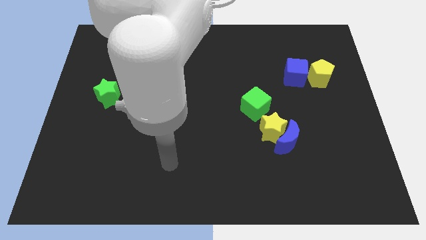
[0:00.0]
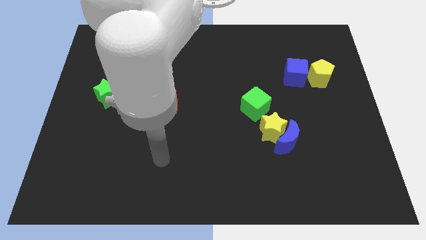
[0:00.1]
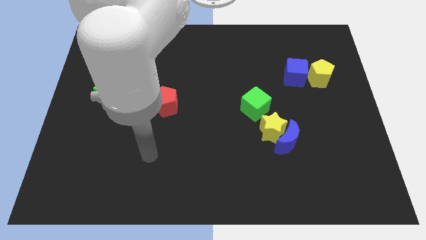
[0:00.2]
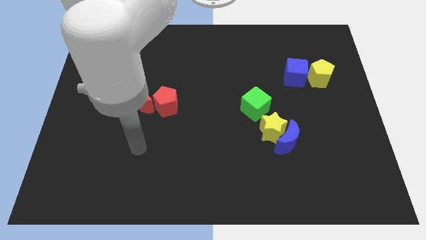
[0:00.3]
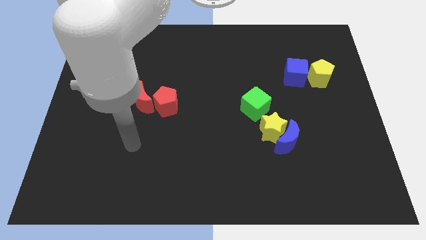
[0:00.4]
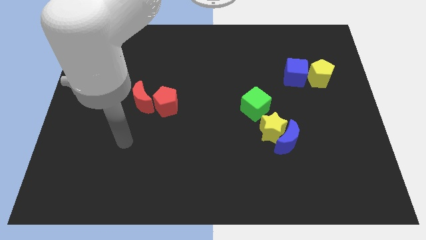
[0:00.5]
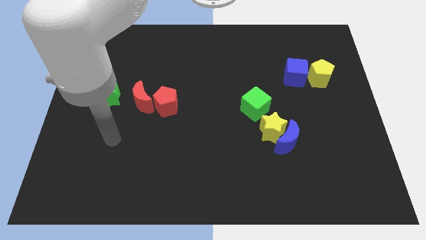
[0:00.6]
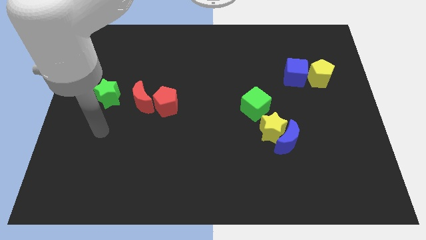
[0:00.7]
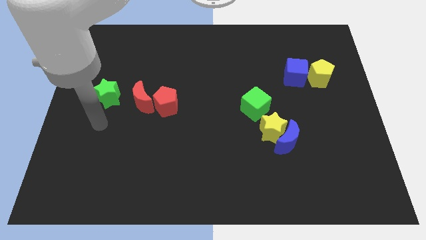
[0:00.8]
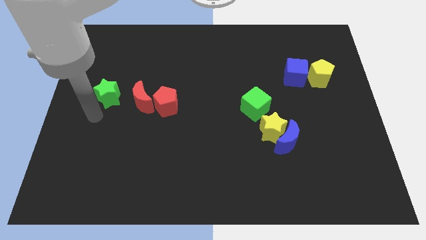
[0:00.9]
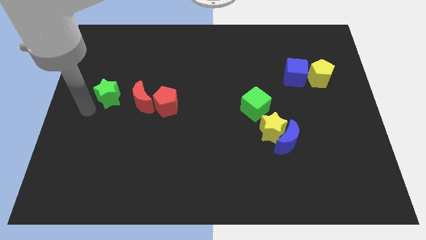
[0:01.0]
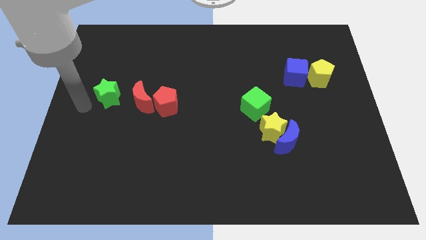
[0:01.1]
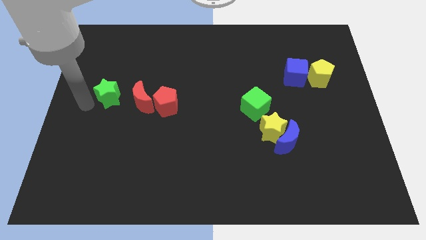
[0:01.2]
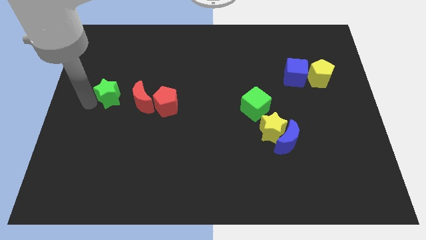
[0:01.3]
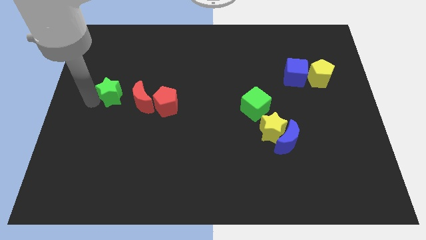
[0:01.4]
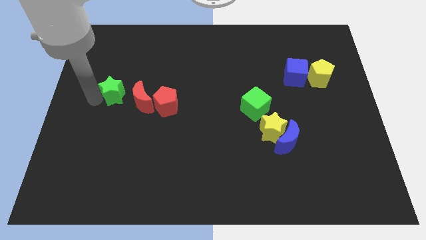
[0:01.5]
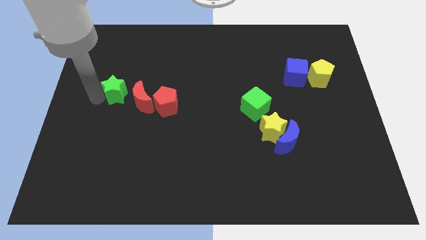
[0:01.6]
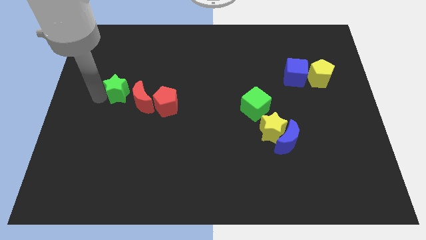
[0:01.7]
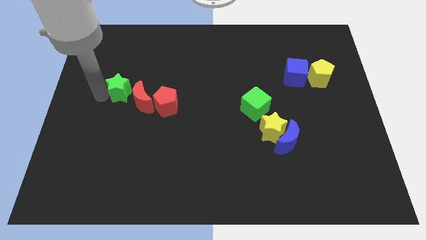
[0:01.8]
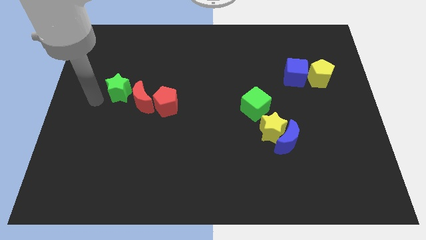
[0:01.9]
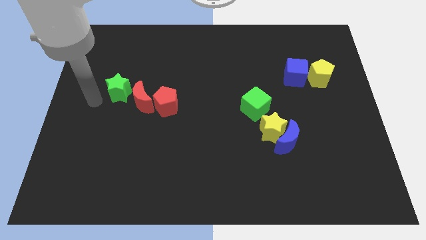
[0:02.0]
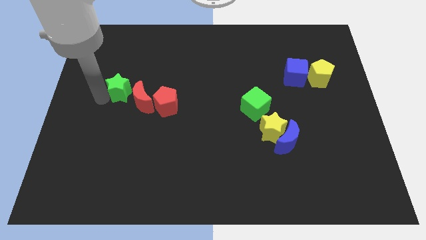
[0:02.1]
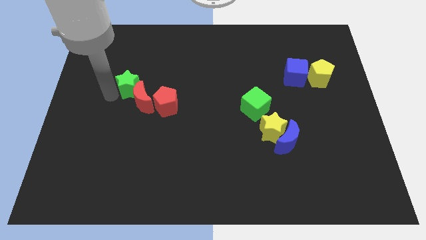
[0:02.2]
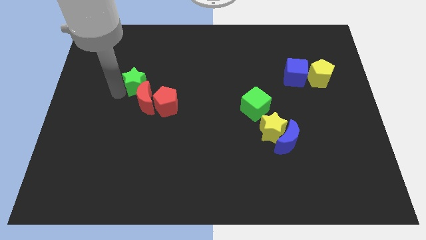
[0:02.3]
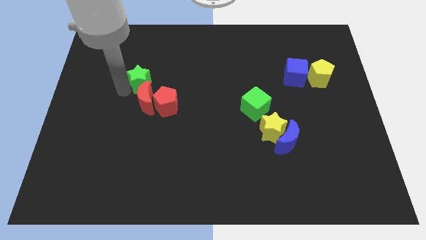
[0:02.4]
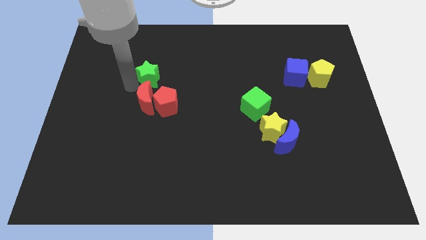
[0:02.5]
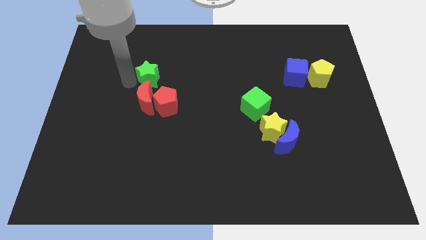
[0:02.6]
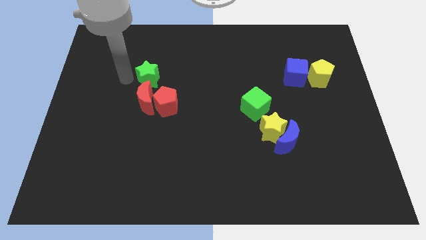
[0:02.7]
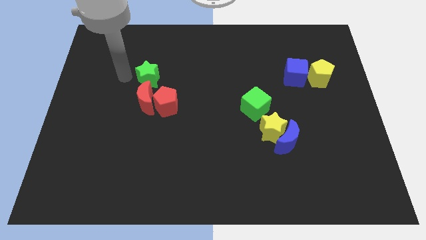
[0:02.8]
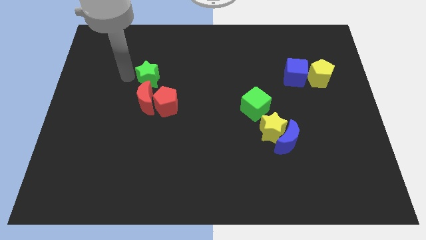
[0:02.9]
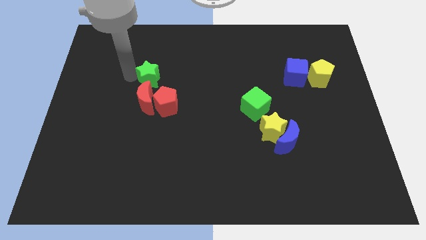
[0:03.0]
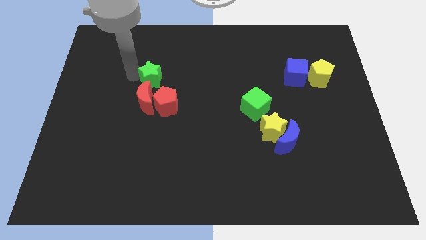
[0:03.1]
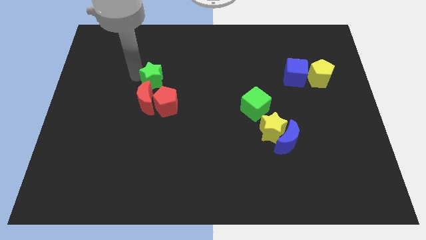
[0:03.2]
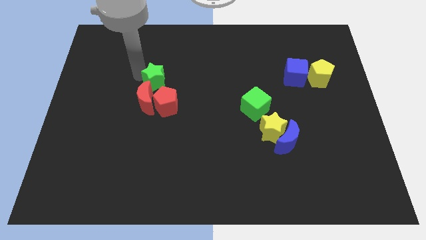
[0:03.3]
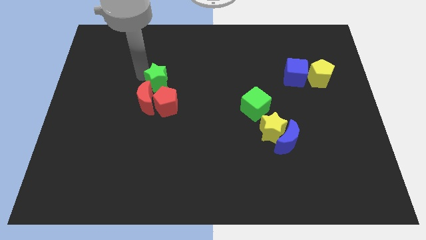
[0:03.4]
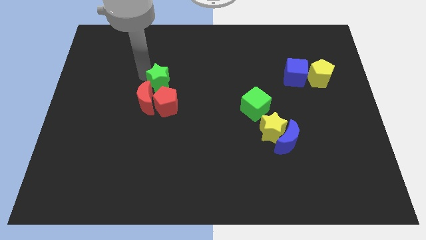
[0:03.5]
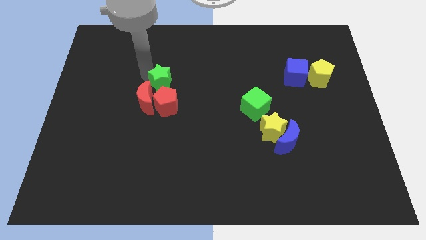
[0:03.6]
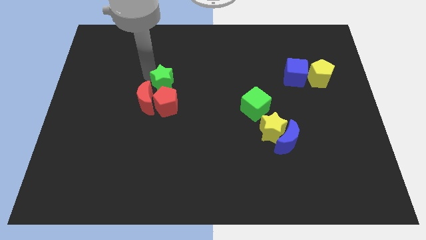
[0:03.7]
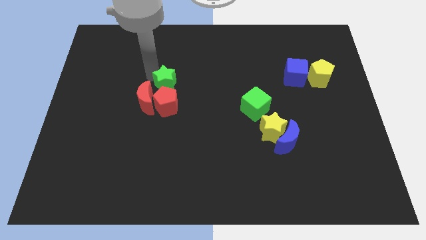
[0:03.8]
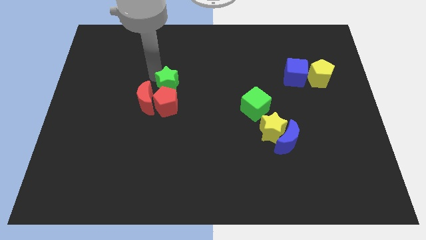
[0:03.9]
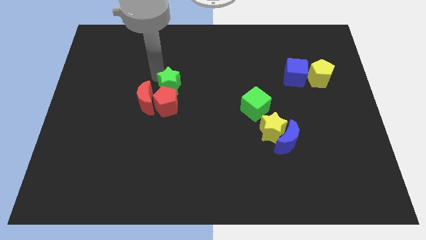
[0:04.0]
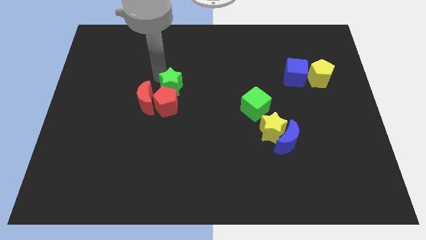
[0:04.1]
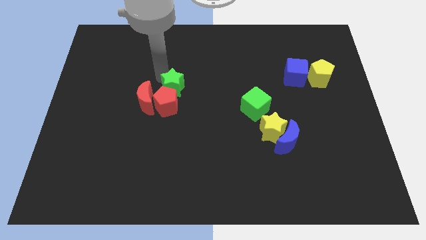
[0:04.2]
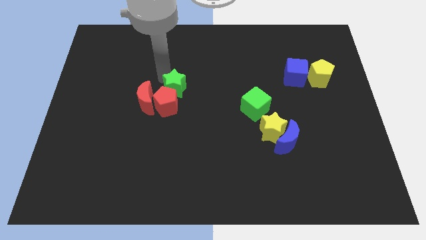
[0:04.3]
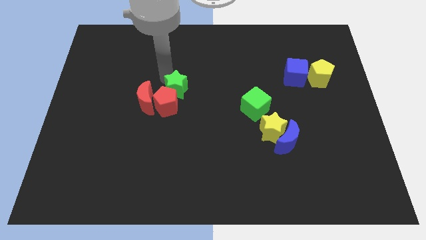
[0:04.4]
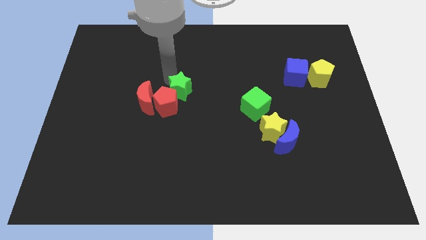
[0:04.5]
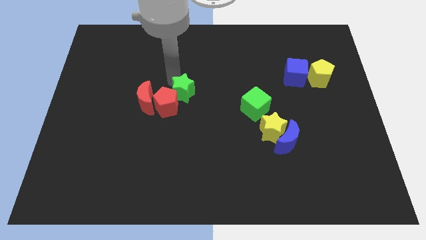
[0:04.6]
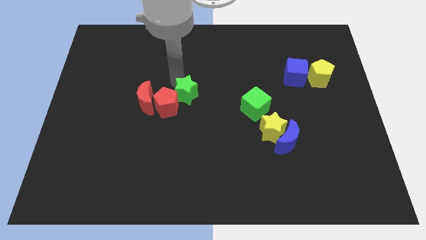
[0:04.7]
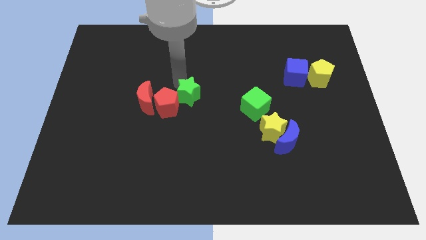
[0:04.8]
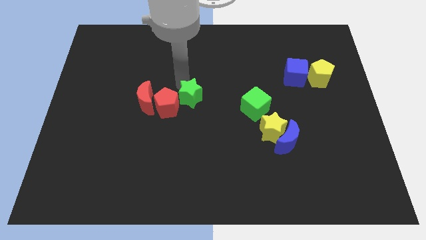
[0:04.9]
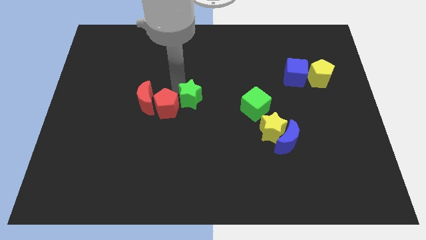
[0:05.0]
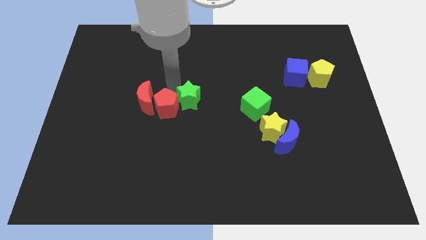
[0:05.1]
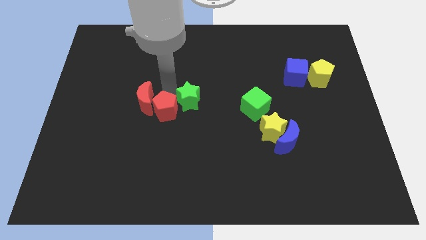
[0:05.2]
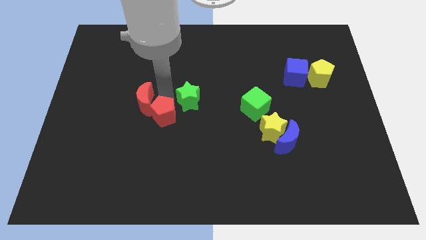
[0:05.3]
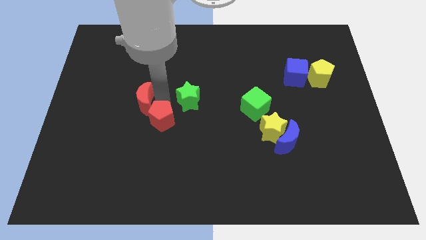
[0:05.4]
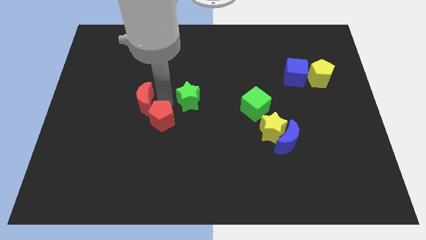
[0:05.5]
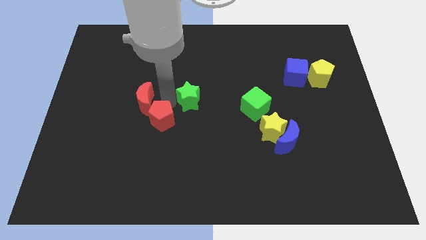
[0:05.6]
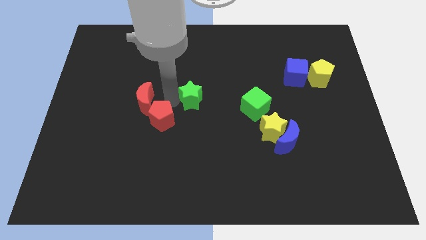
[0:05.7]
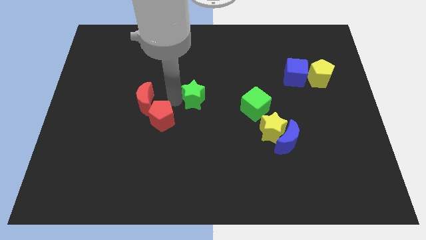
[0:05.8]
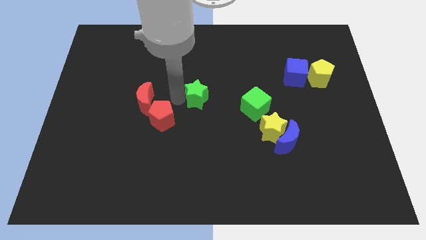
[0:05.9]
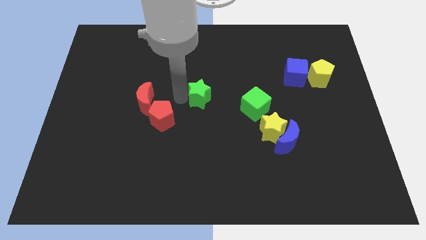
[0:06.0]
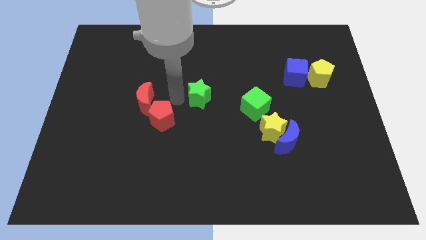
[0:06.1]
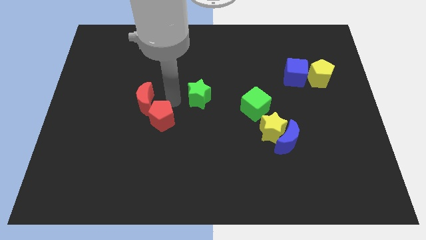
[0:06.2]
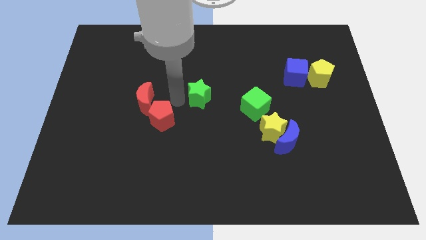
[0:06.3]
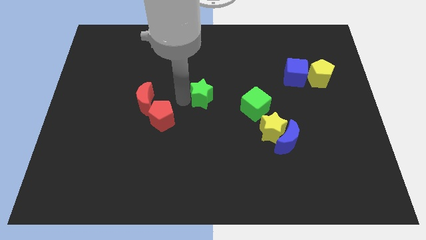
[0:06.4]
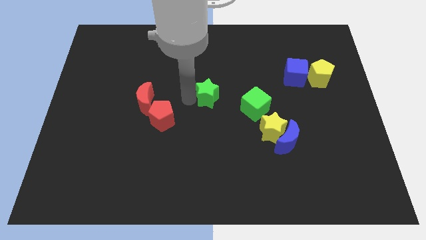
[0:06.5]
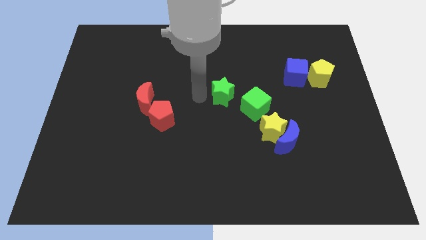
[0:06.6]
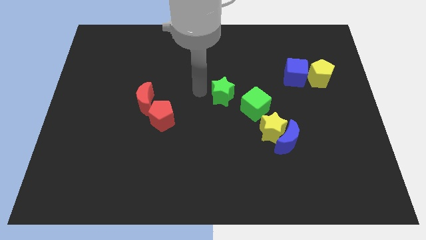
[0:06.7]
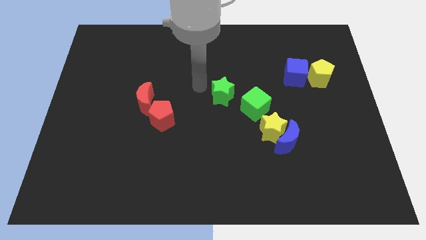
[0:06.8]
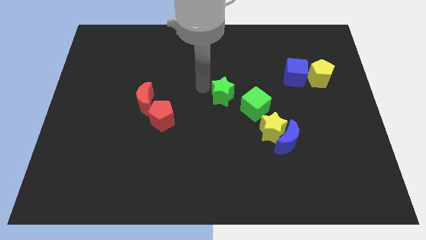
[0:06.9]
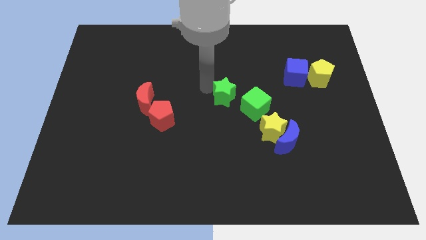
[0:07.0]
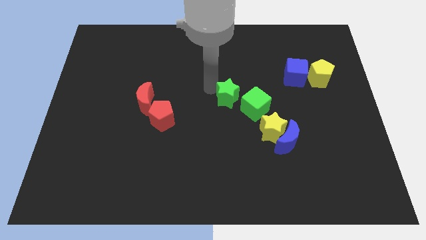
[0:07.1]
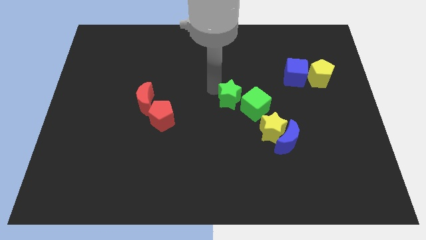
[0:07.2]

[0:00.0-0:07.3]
move the green star towards the green cube

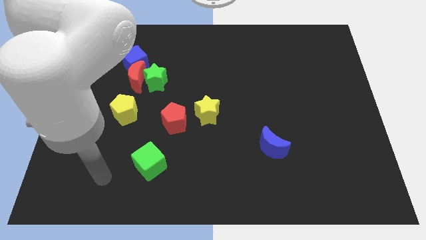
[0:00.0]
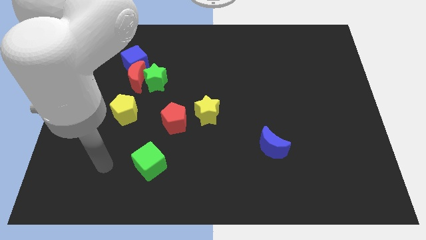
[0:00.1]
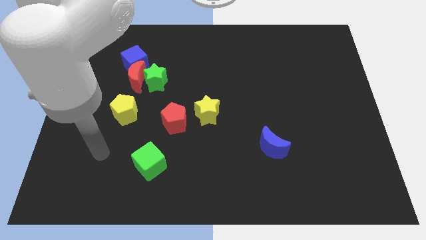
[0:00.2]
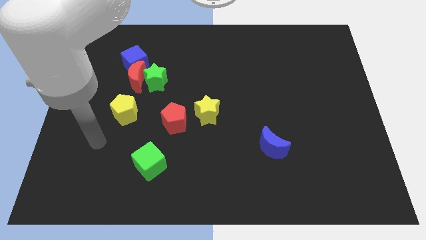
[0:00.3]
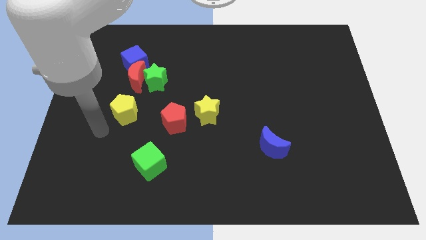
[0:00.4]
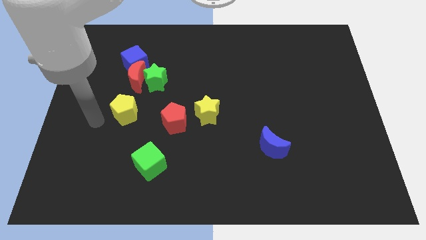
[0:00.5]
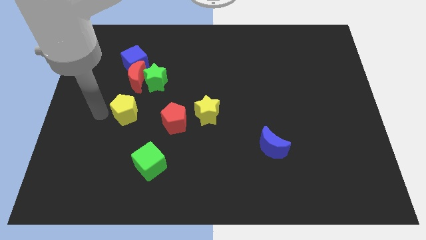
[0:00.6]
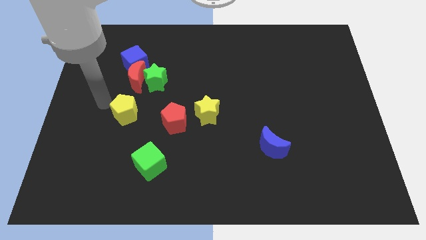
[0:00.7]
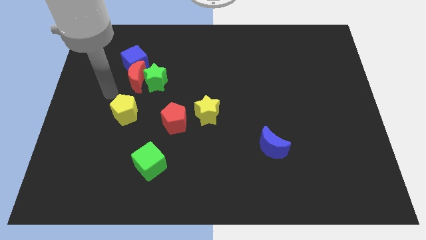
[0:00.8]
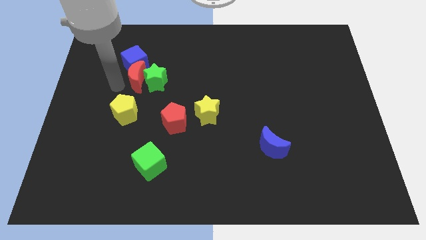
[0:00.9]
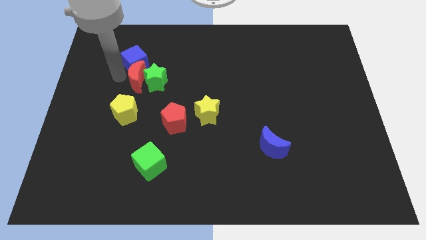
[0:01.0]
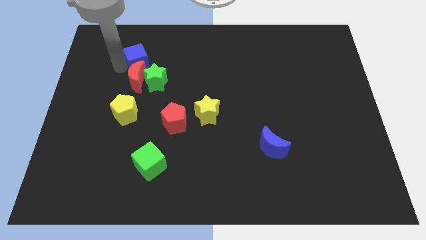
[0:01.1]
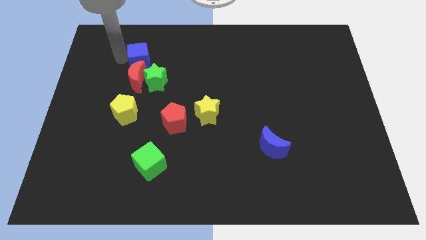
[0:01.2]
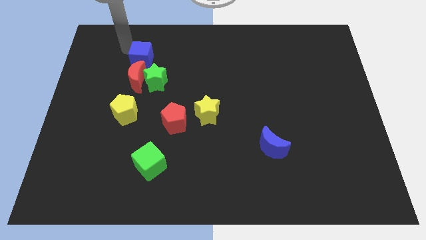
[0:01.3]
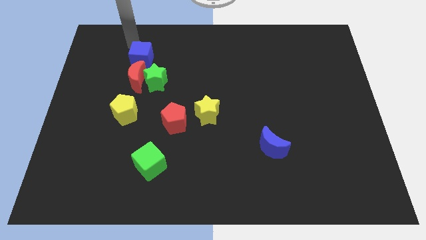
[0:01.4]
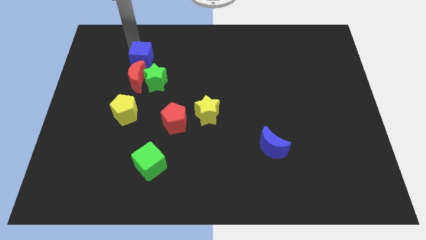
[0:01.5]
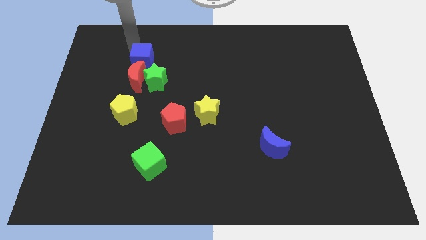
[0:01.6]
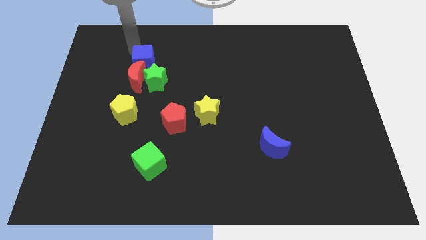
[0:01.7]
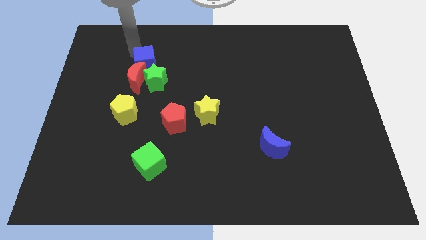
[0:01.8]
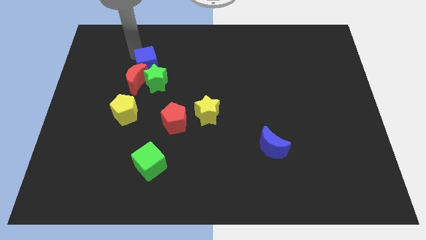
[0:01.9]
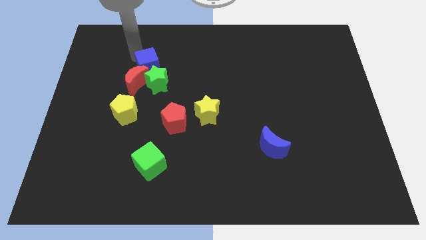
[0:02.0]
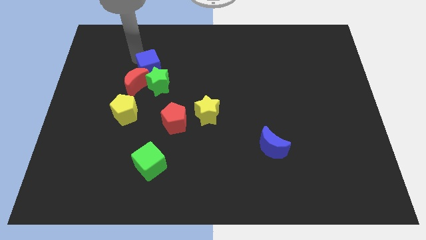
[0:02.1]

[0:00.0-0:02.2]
put the blue cube close to the green star
